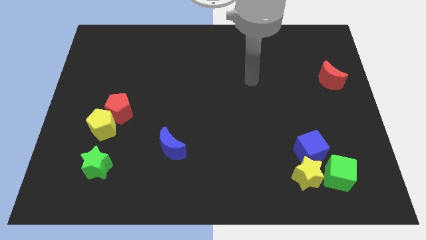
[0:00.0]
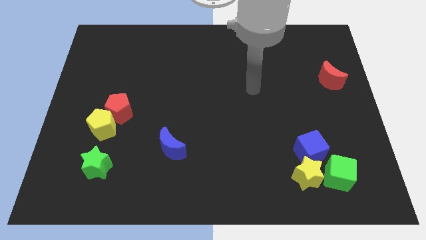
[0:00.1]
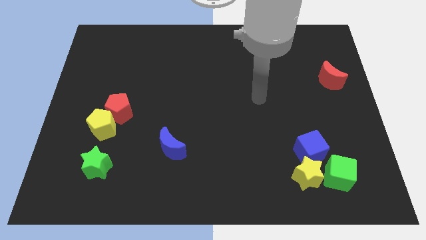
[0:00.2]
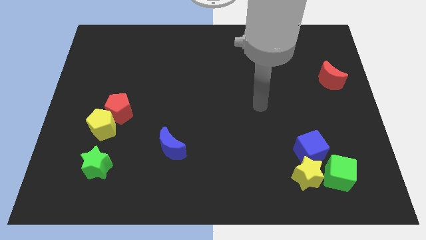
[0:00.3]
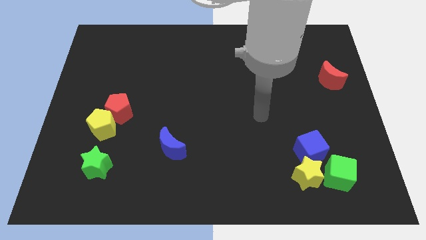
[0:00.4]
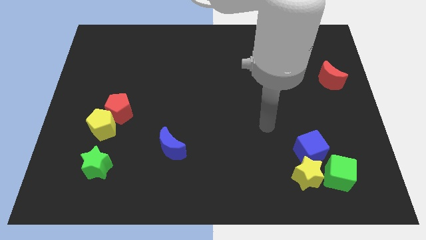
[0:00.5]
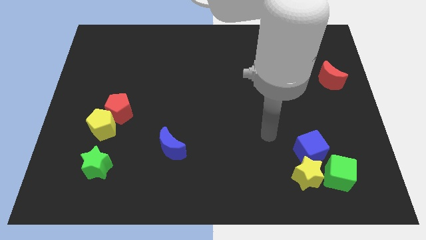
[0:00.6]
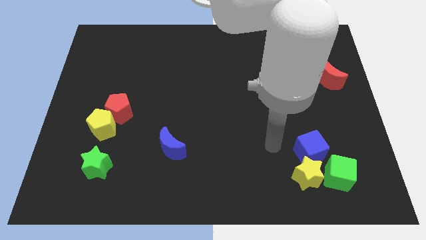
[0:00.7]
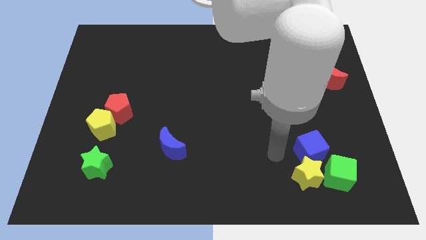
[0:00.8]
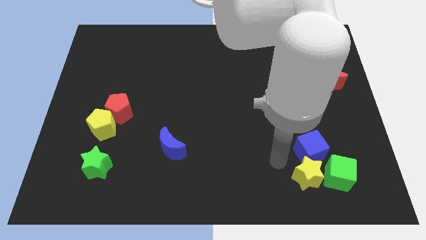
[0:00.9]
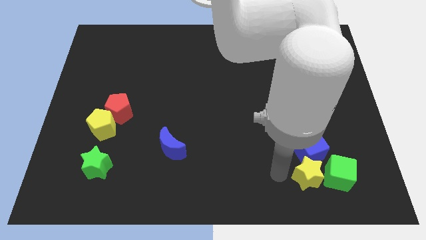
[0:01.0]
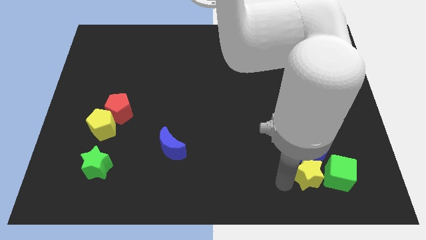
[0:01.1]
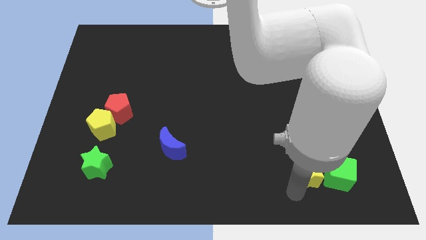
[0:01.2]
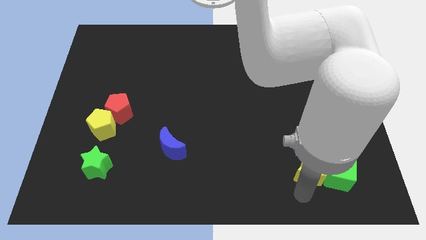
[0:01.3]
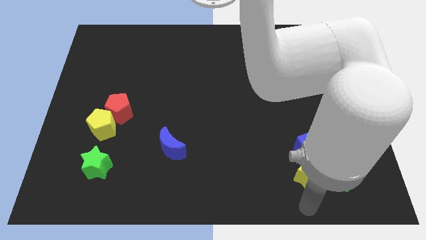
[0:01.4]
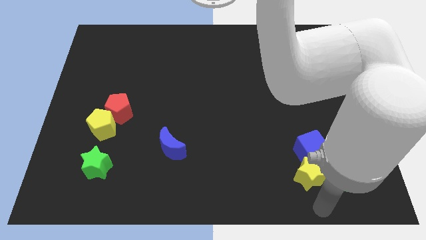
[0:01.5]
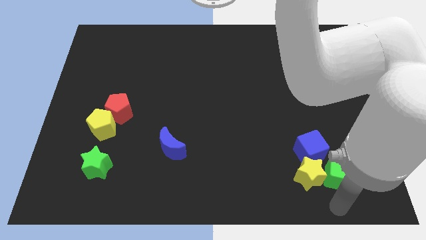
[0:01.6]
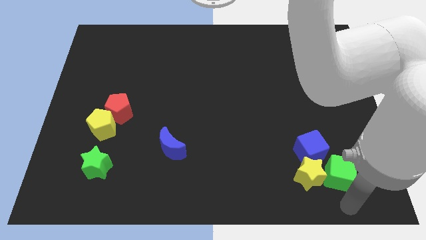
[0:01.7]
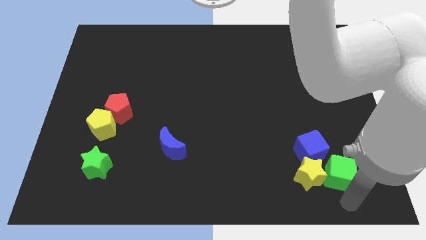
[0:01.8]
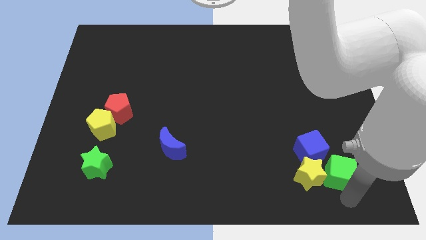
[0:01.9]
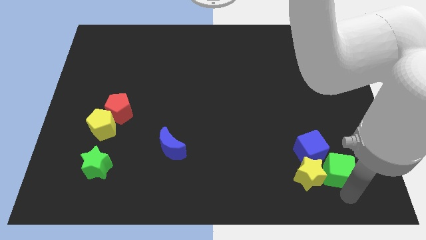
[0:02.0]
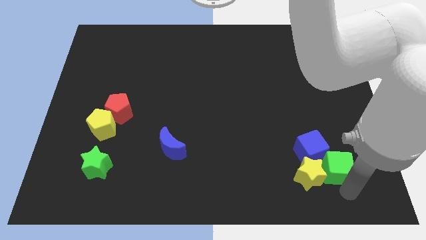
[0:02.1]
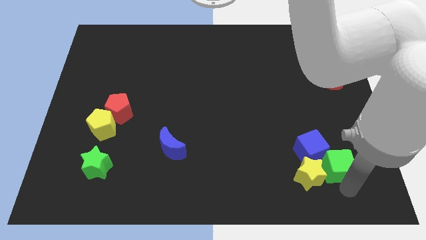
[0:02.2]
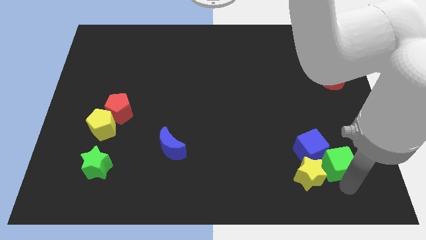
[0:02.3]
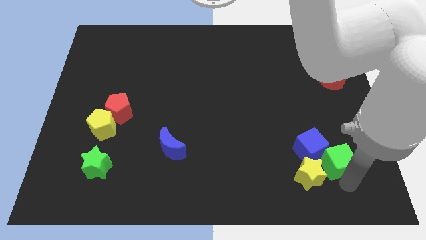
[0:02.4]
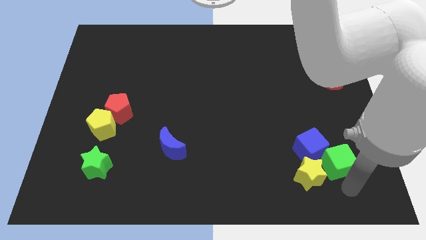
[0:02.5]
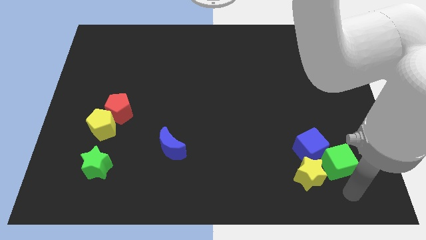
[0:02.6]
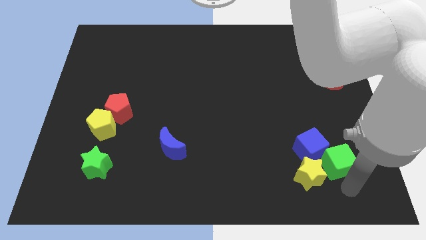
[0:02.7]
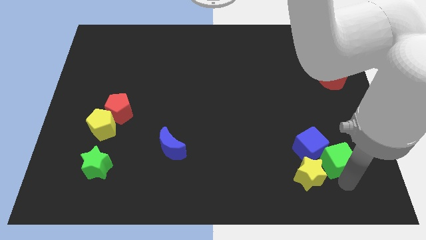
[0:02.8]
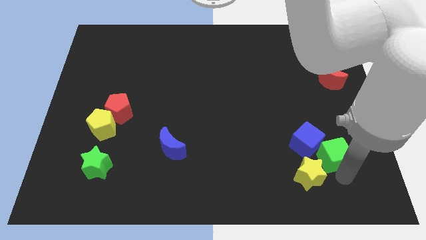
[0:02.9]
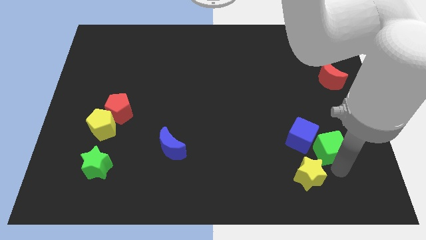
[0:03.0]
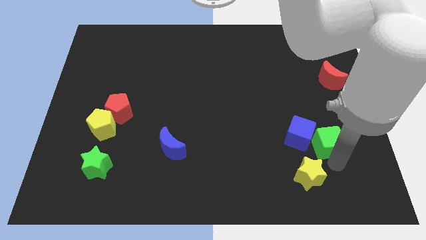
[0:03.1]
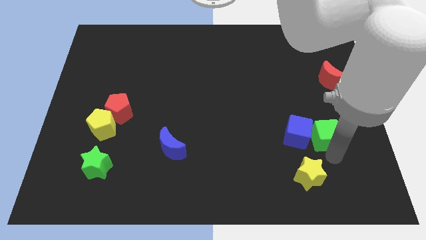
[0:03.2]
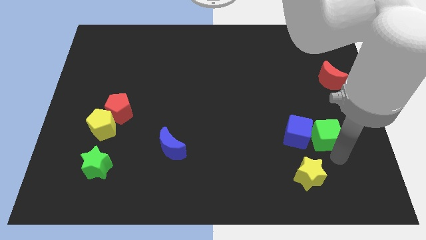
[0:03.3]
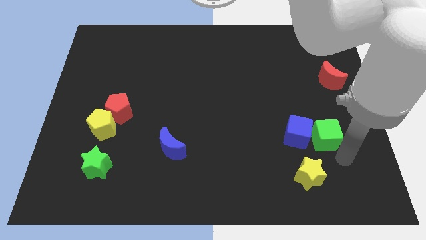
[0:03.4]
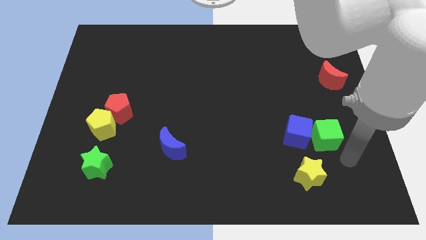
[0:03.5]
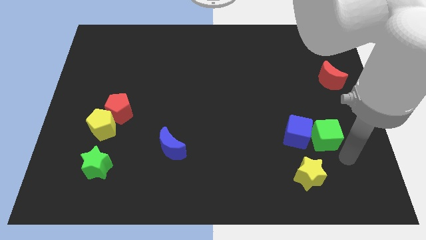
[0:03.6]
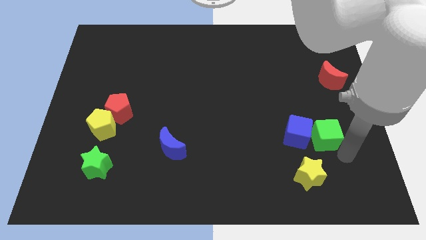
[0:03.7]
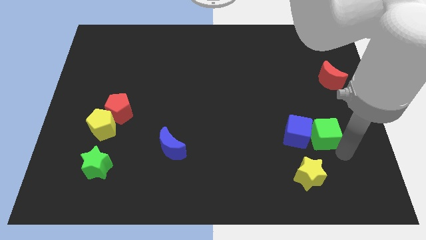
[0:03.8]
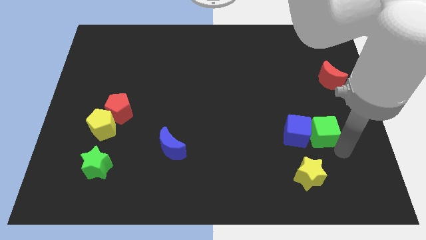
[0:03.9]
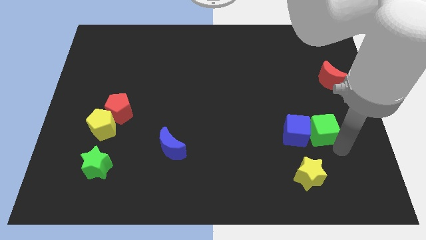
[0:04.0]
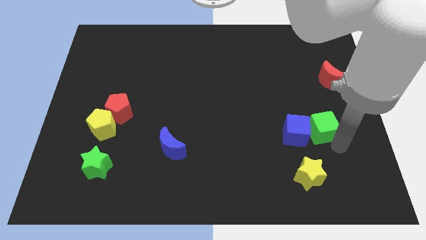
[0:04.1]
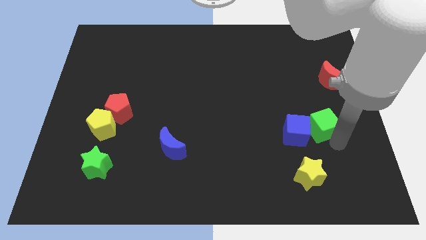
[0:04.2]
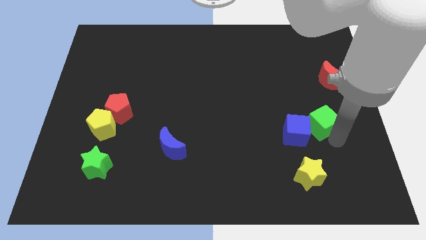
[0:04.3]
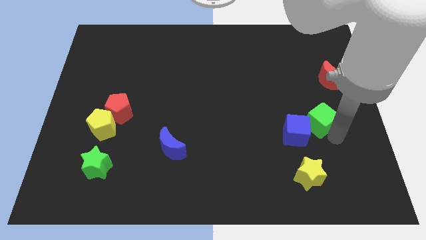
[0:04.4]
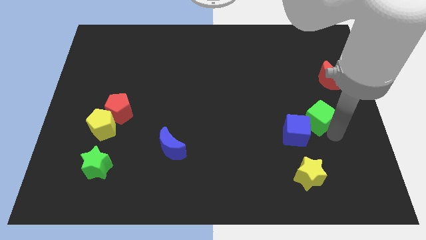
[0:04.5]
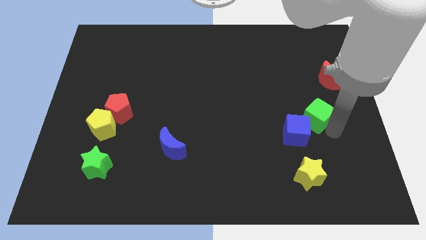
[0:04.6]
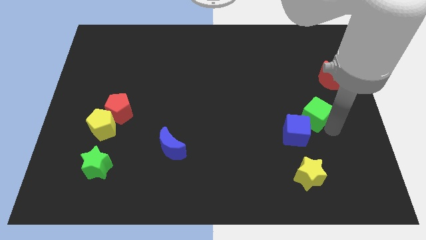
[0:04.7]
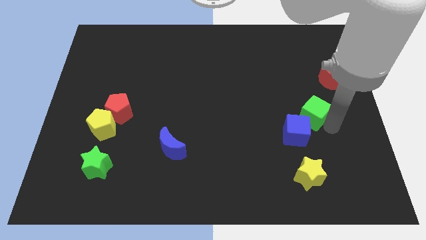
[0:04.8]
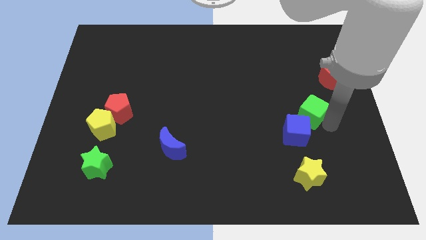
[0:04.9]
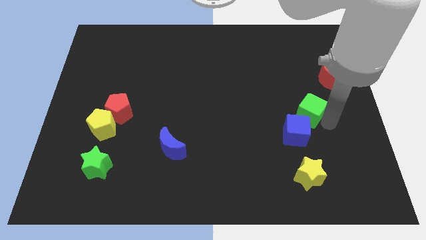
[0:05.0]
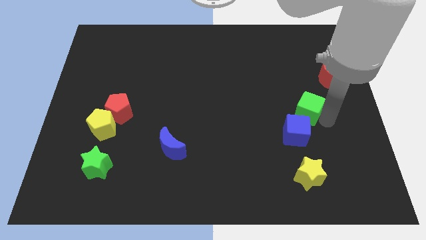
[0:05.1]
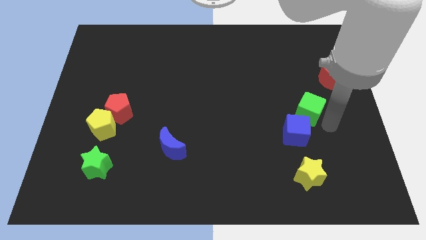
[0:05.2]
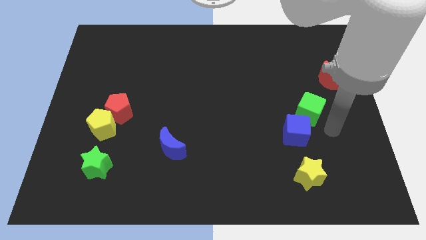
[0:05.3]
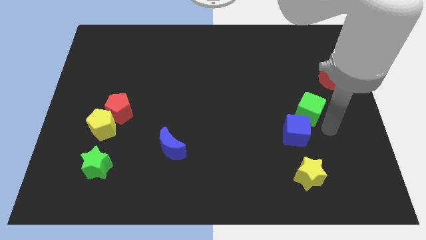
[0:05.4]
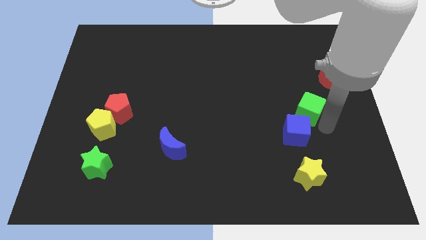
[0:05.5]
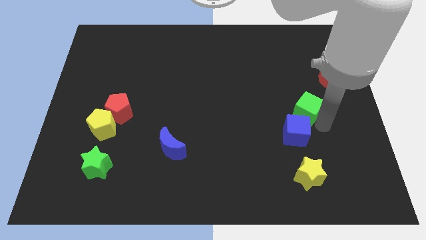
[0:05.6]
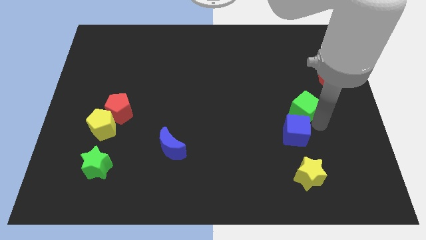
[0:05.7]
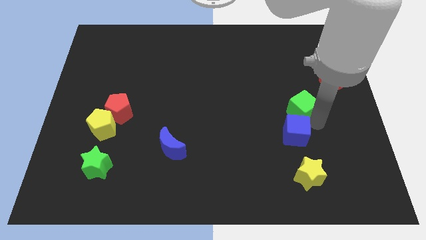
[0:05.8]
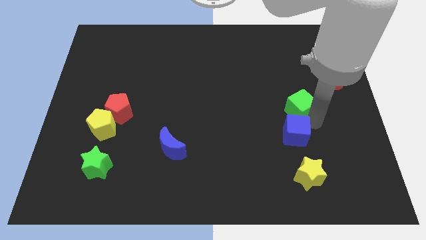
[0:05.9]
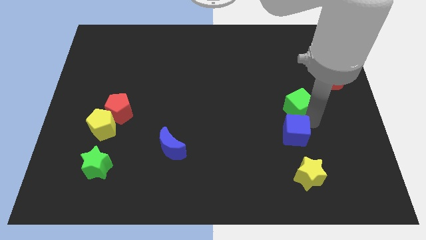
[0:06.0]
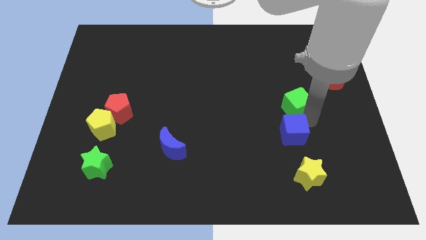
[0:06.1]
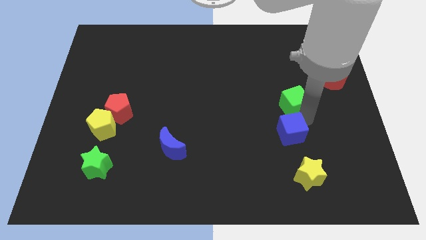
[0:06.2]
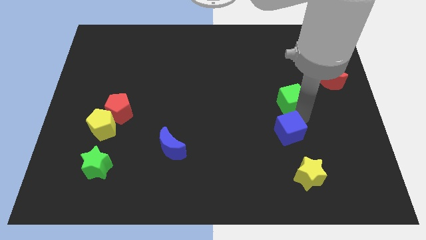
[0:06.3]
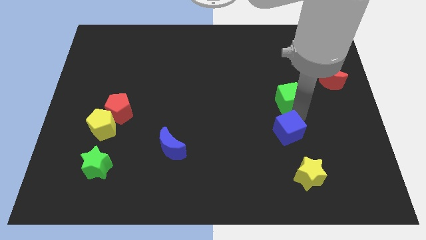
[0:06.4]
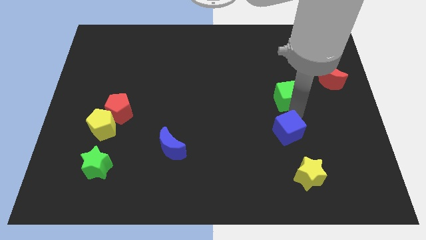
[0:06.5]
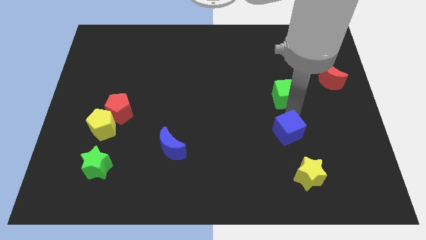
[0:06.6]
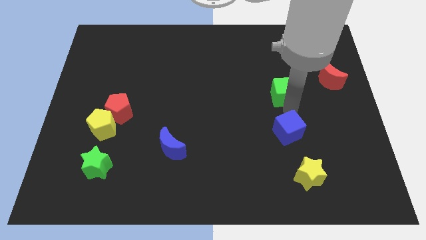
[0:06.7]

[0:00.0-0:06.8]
move the green cube to the left side of the red moon

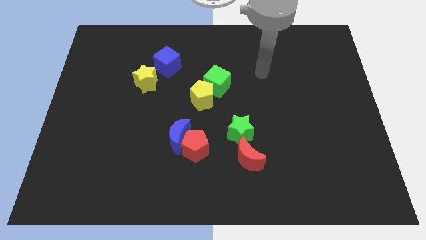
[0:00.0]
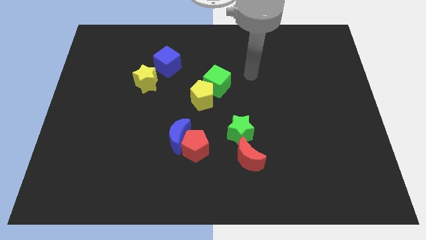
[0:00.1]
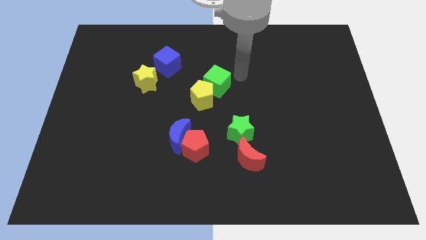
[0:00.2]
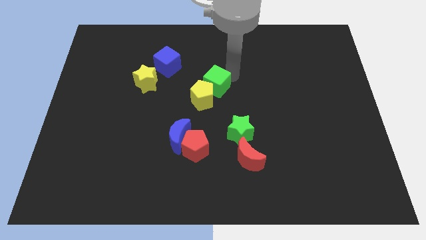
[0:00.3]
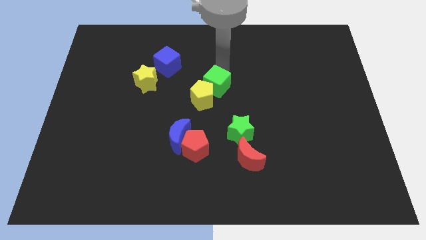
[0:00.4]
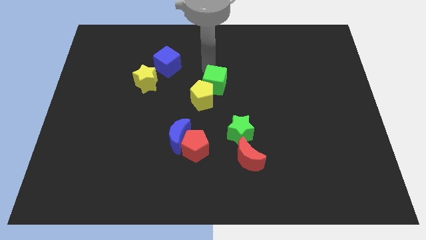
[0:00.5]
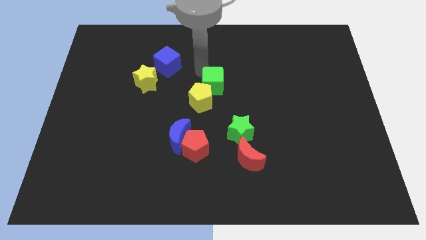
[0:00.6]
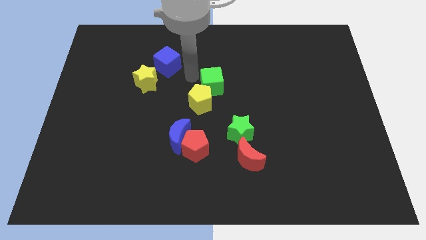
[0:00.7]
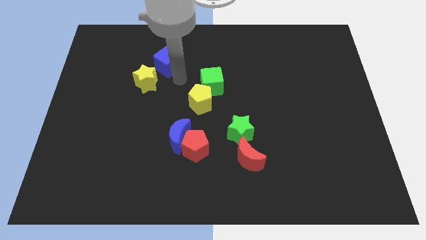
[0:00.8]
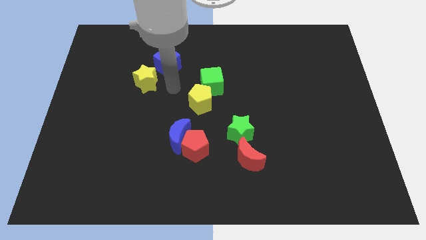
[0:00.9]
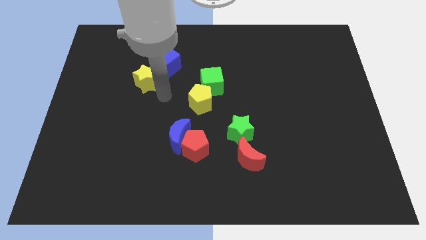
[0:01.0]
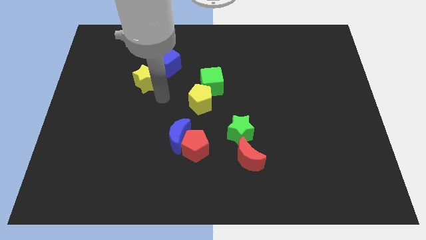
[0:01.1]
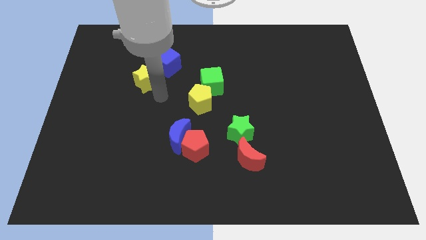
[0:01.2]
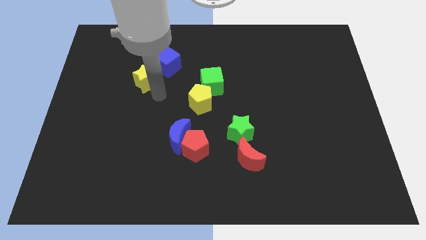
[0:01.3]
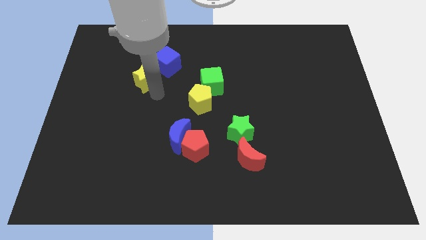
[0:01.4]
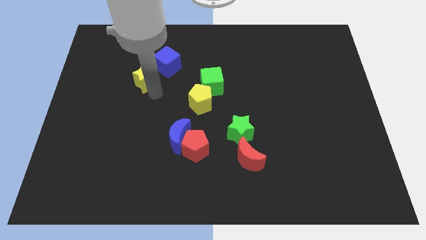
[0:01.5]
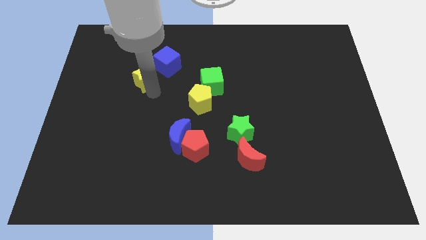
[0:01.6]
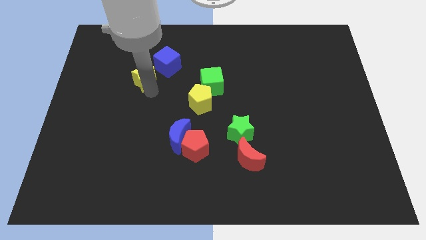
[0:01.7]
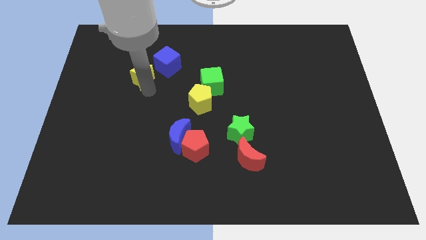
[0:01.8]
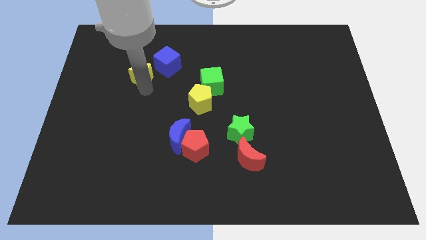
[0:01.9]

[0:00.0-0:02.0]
put the yellow star just left of the blue cube
